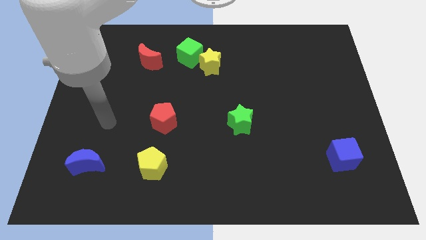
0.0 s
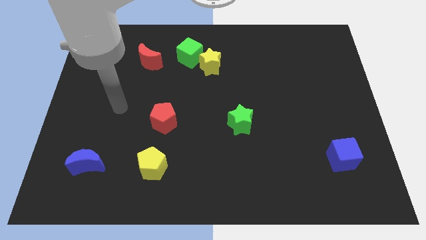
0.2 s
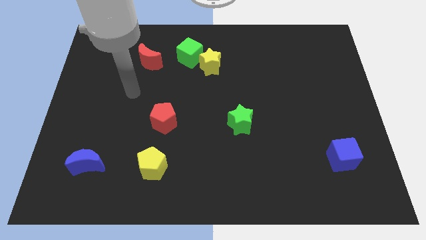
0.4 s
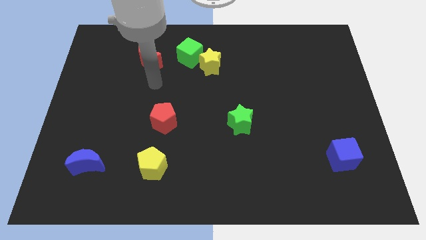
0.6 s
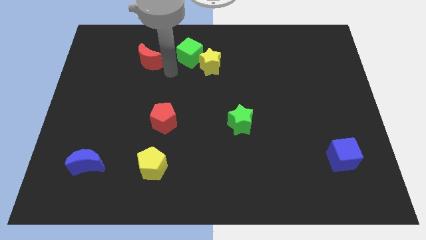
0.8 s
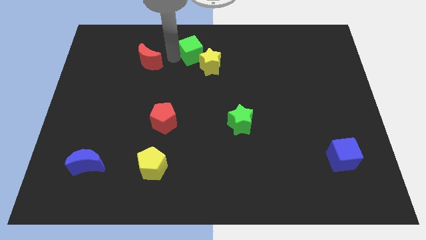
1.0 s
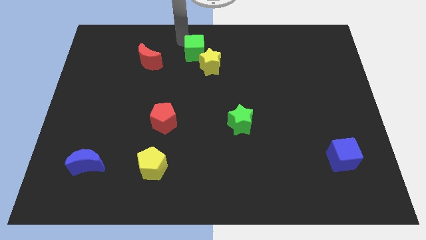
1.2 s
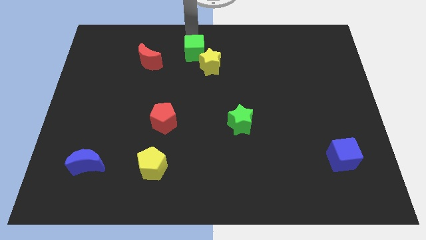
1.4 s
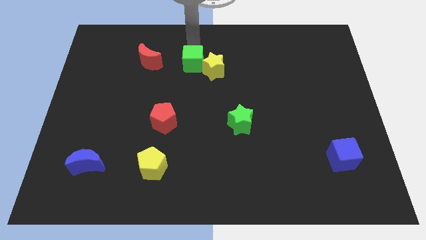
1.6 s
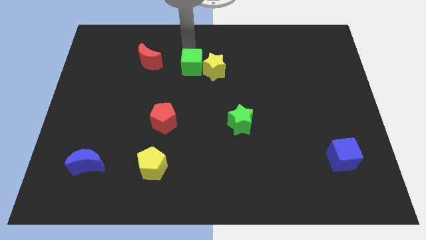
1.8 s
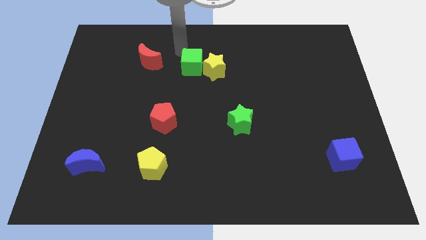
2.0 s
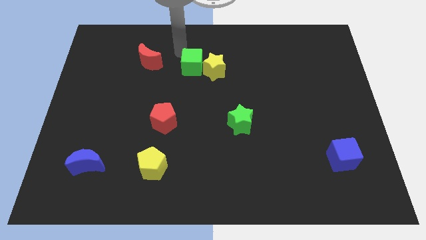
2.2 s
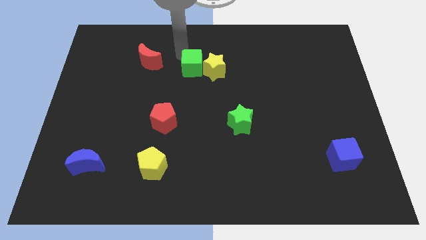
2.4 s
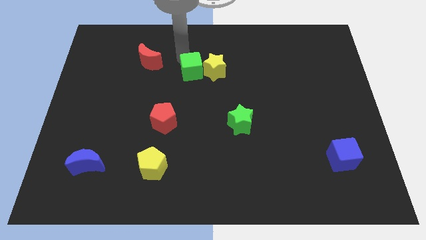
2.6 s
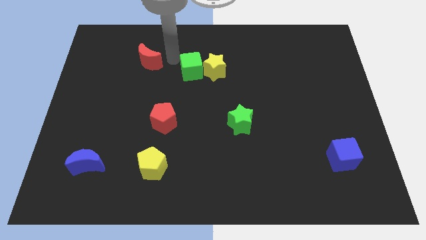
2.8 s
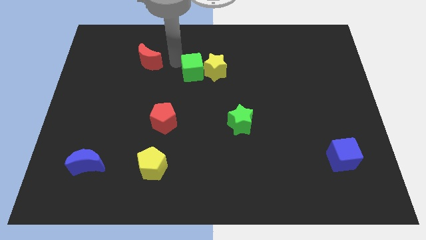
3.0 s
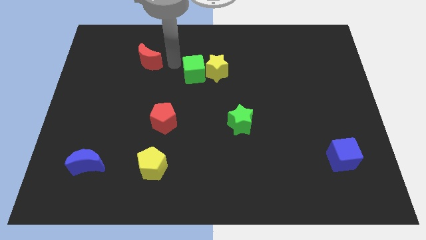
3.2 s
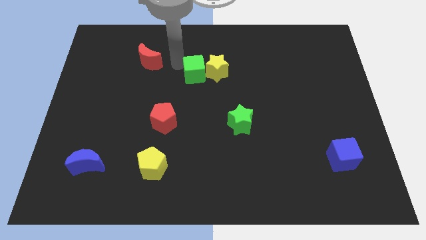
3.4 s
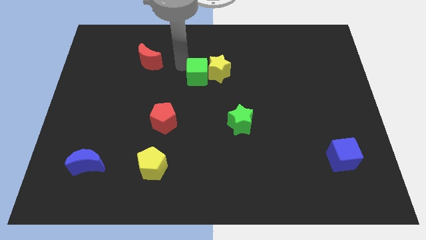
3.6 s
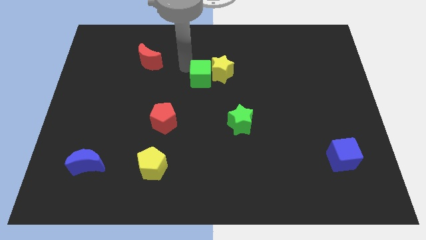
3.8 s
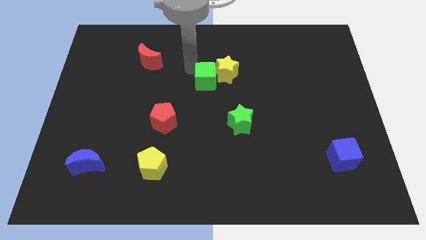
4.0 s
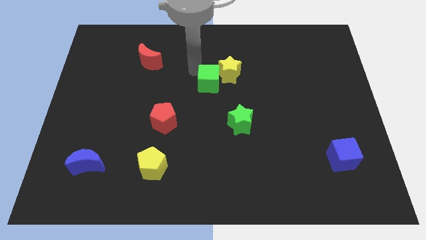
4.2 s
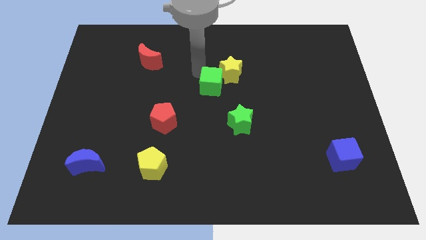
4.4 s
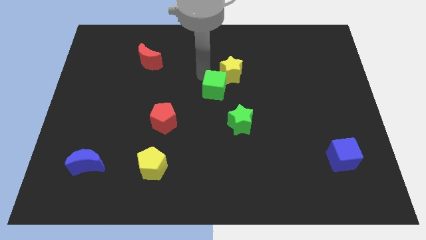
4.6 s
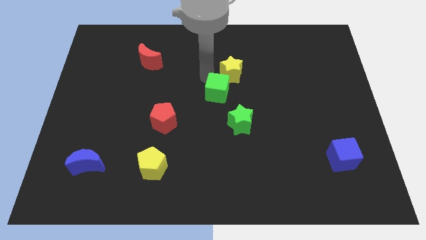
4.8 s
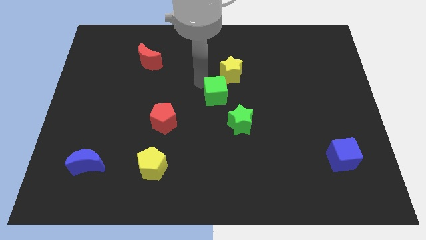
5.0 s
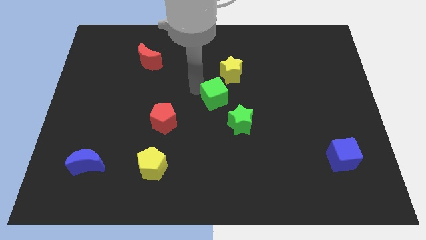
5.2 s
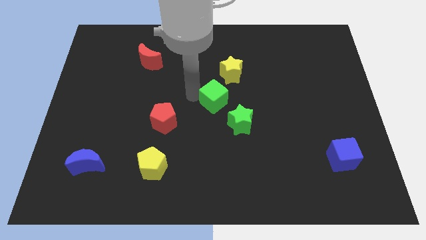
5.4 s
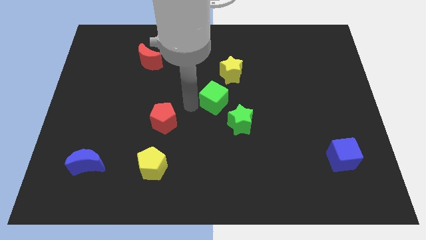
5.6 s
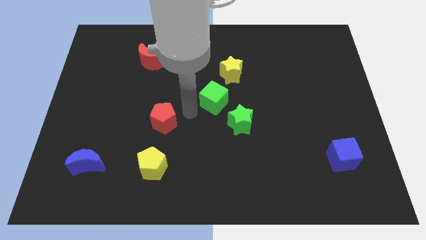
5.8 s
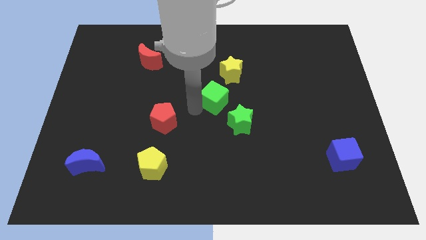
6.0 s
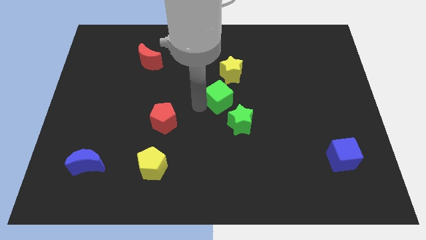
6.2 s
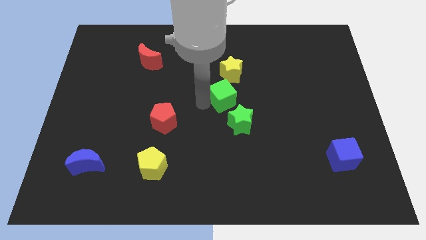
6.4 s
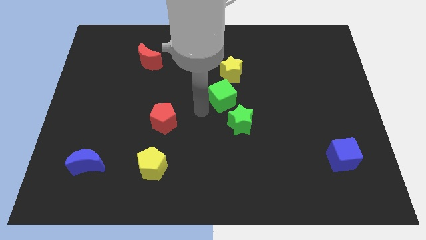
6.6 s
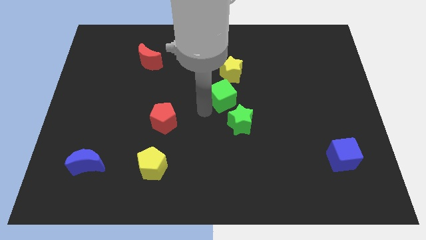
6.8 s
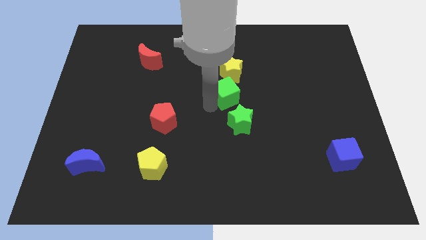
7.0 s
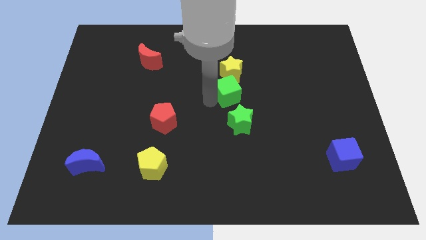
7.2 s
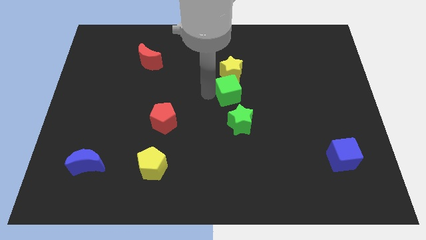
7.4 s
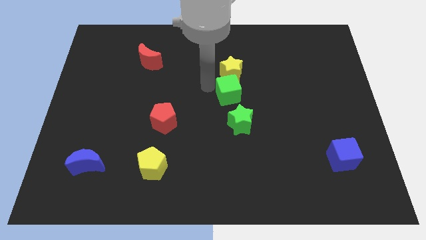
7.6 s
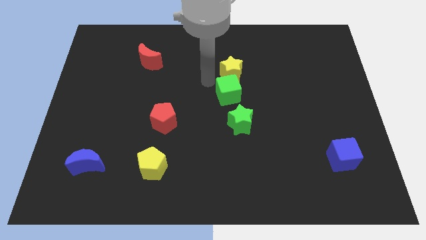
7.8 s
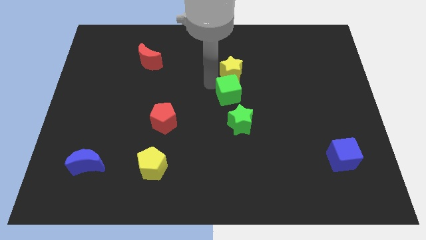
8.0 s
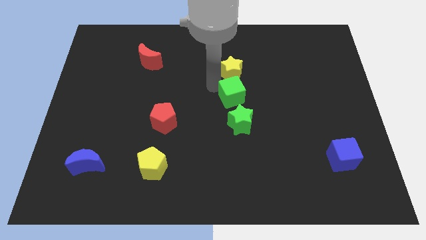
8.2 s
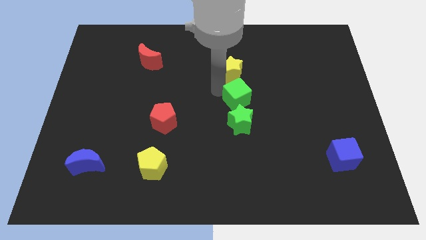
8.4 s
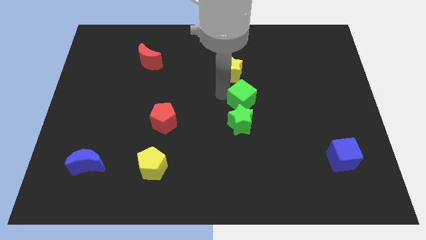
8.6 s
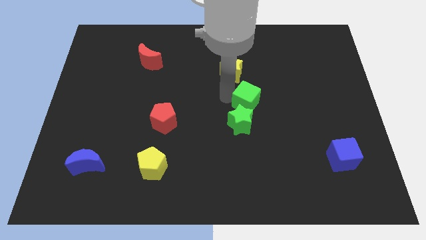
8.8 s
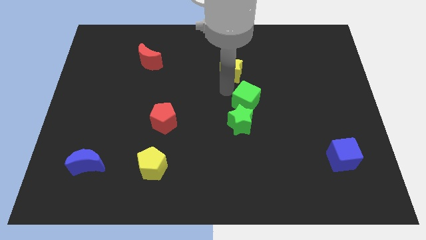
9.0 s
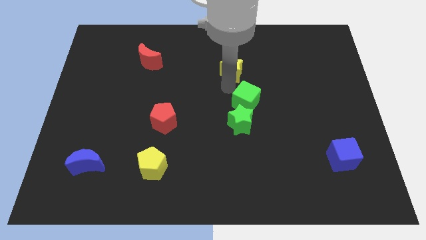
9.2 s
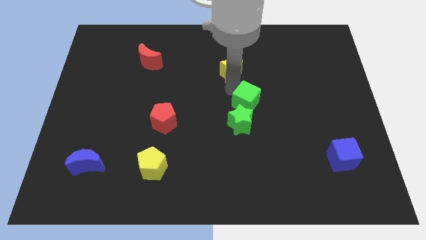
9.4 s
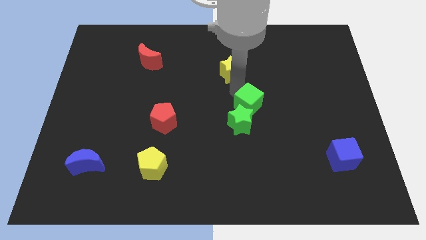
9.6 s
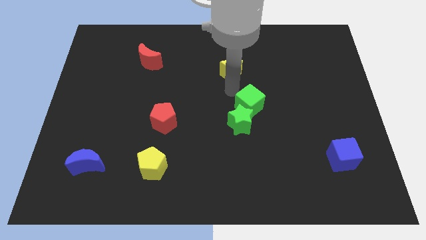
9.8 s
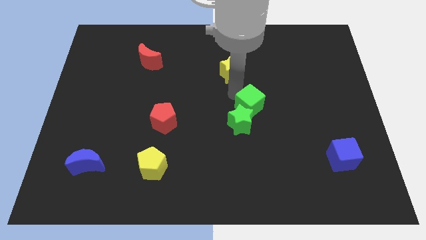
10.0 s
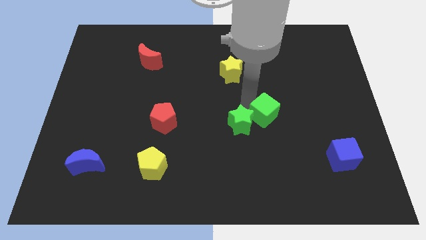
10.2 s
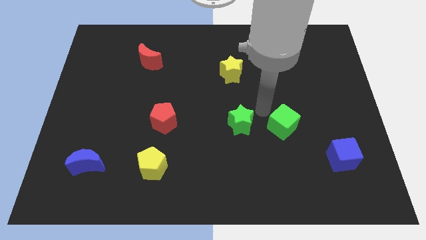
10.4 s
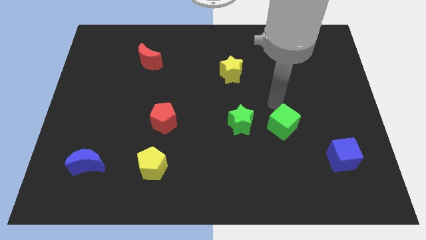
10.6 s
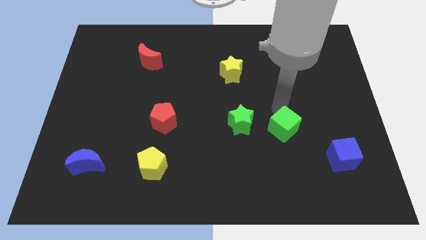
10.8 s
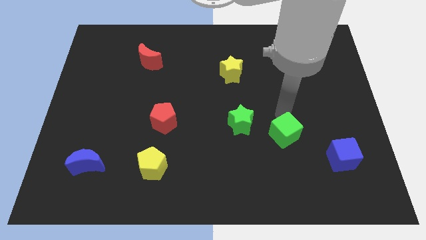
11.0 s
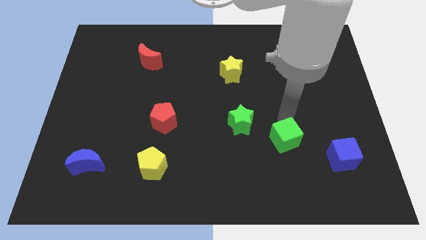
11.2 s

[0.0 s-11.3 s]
slide the green cube to the left side of the blue cube

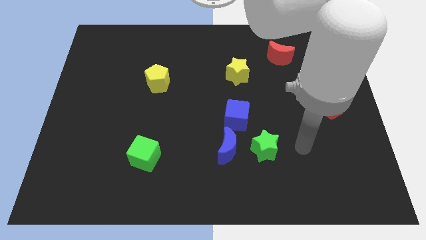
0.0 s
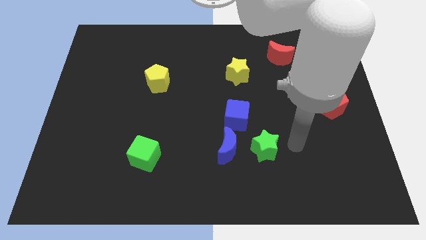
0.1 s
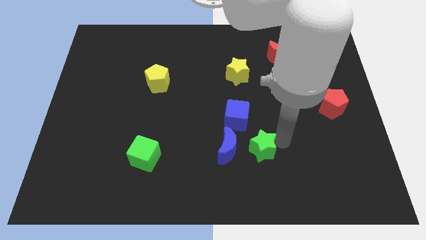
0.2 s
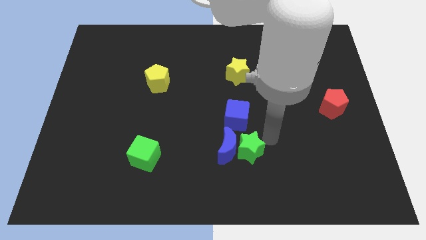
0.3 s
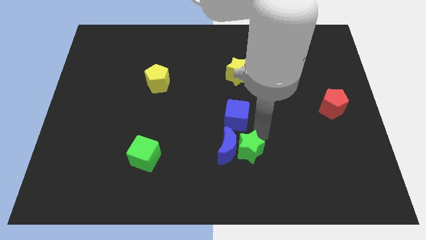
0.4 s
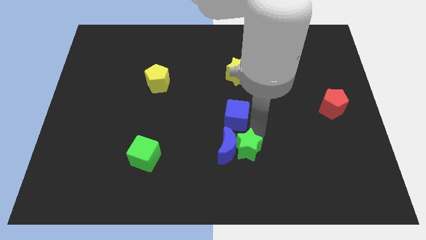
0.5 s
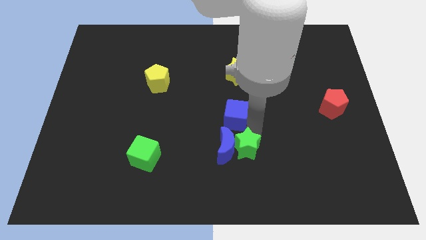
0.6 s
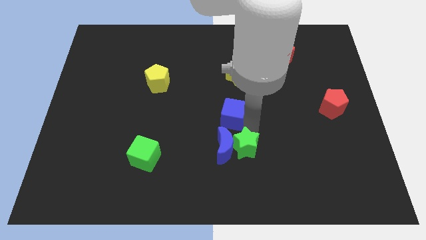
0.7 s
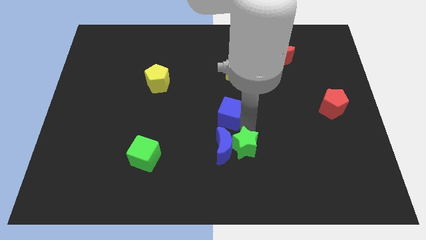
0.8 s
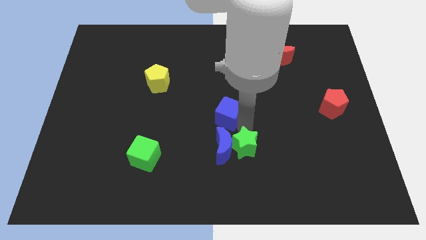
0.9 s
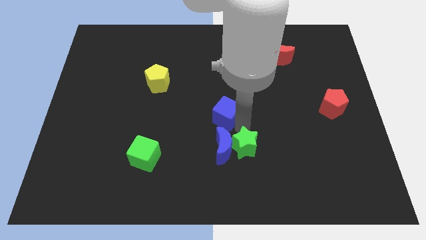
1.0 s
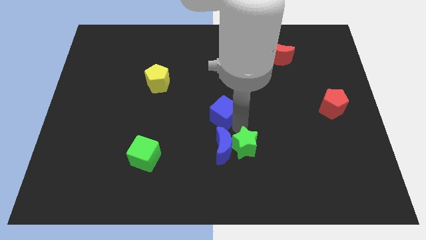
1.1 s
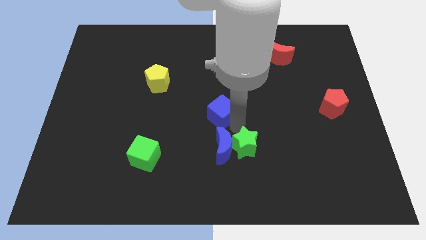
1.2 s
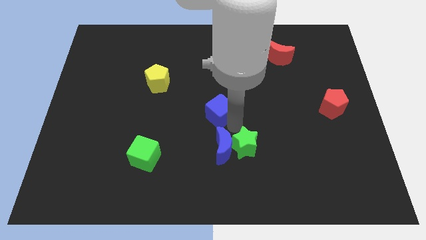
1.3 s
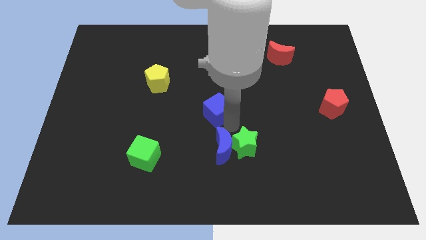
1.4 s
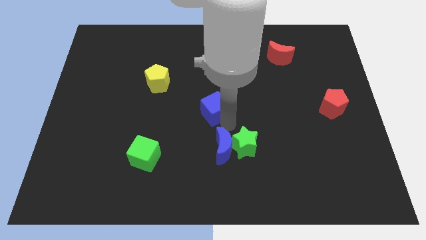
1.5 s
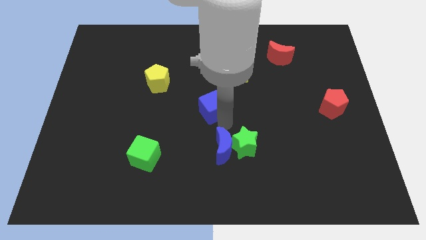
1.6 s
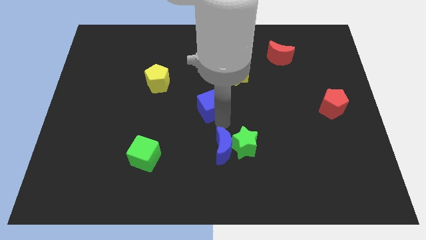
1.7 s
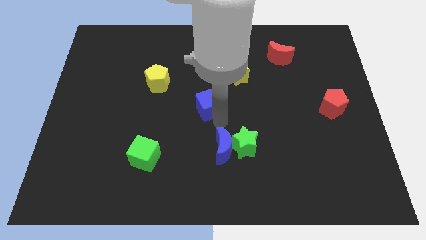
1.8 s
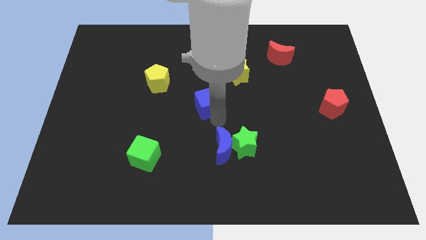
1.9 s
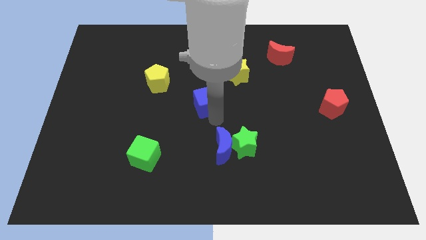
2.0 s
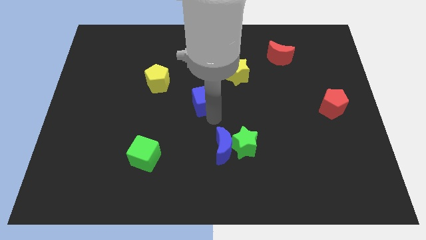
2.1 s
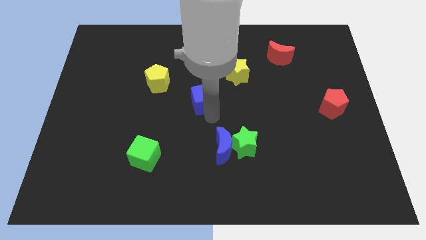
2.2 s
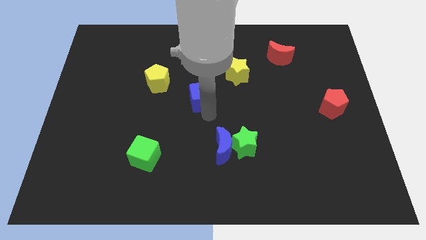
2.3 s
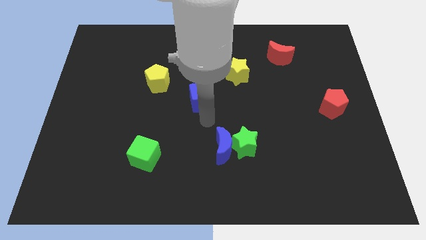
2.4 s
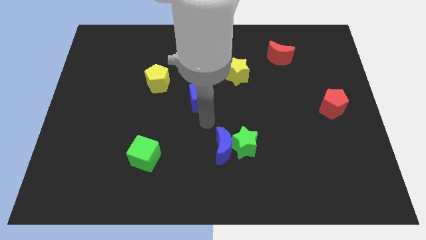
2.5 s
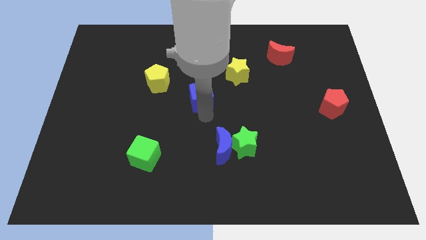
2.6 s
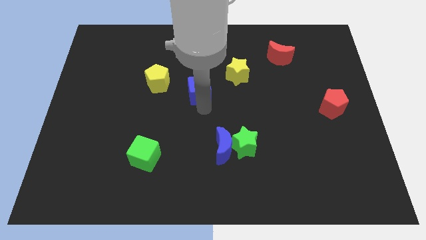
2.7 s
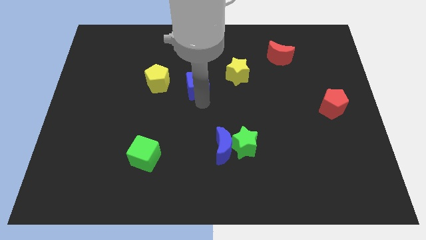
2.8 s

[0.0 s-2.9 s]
slide the blue cube to the left side of the yellow star
